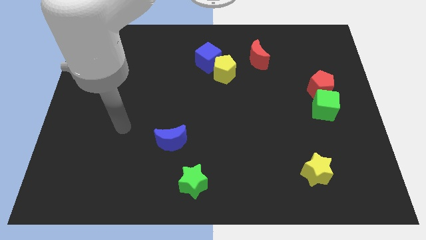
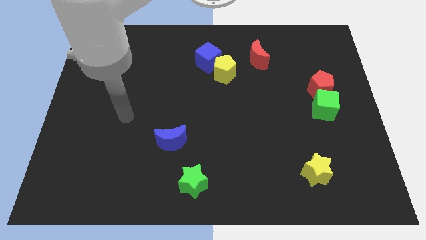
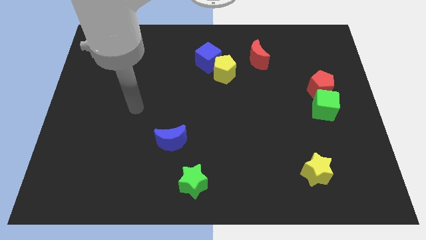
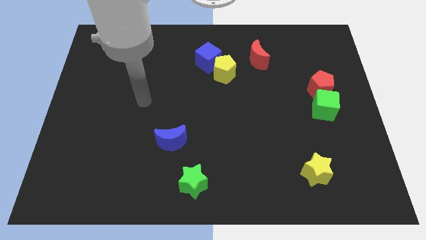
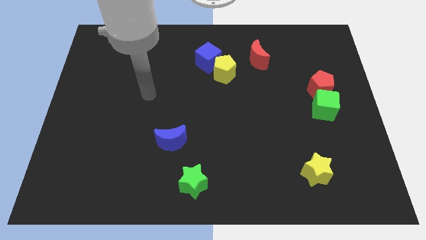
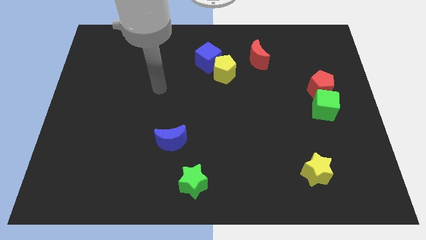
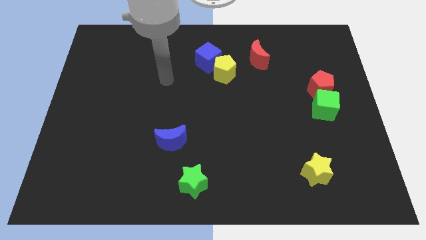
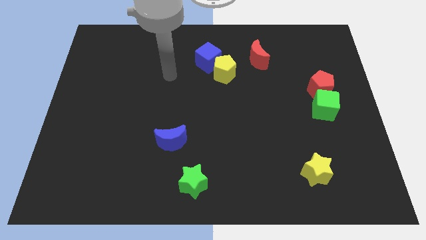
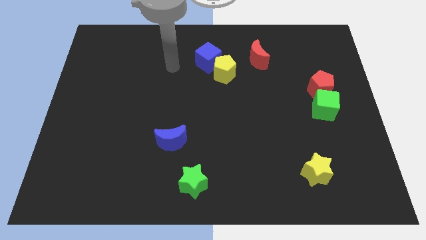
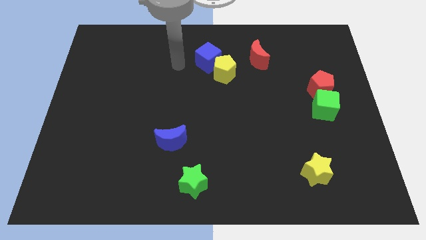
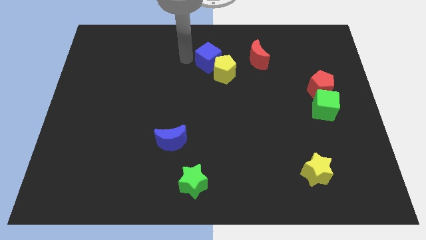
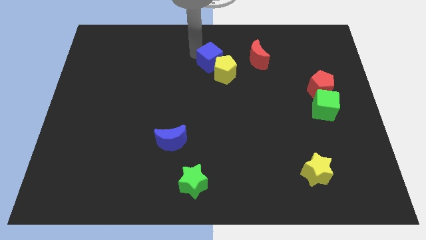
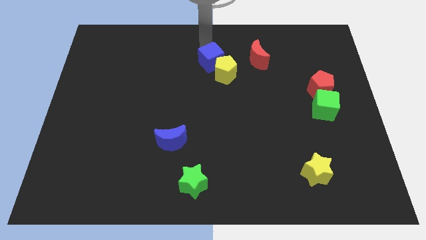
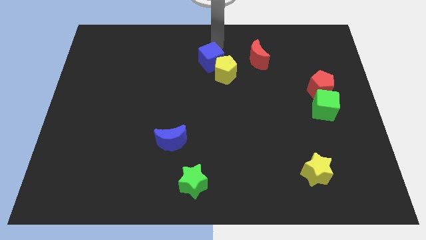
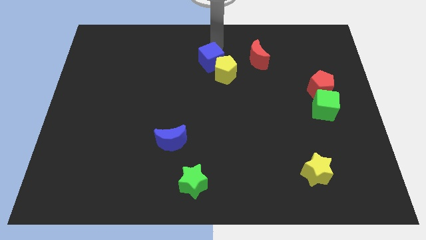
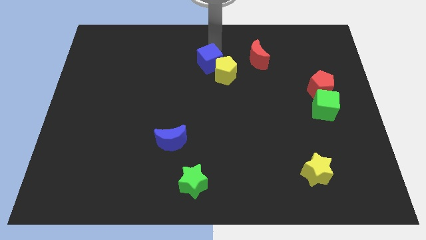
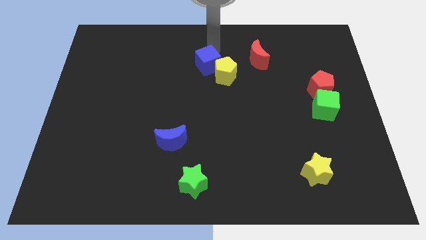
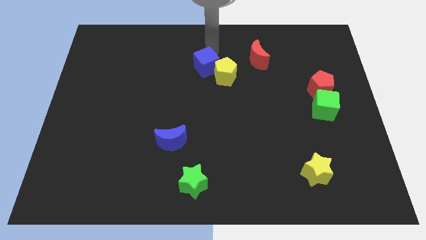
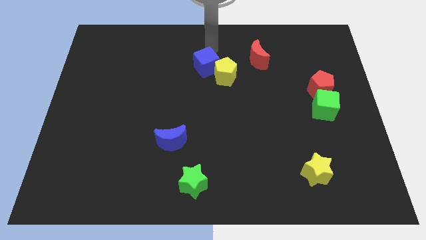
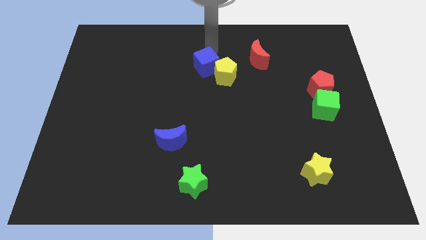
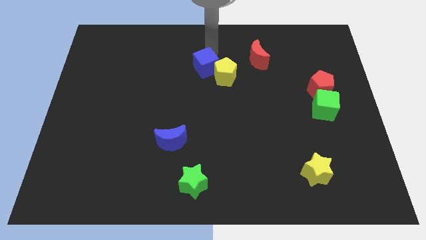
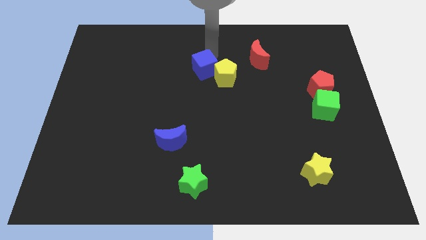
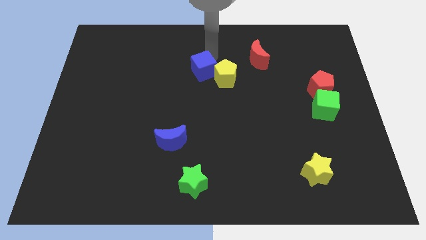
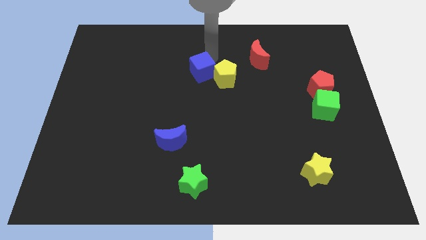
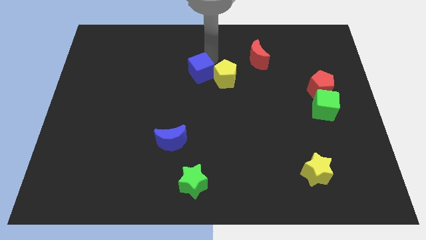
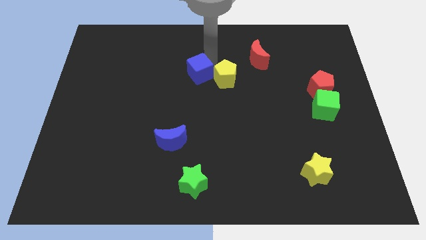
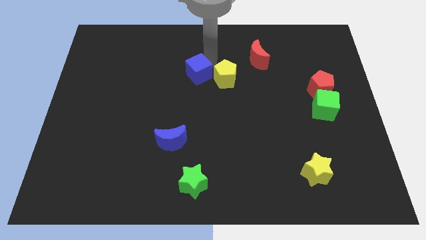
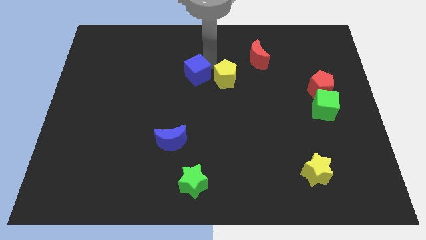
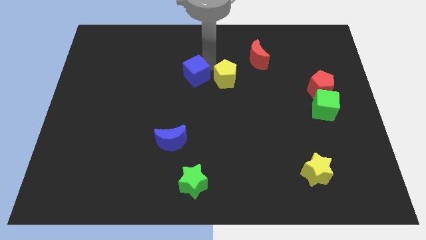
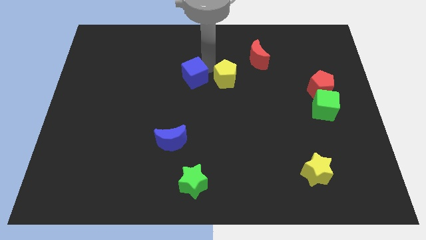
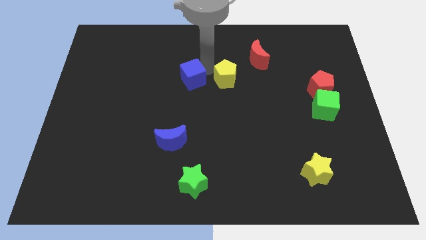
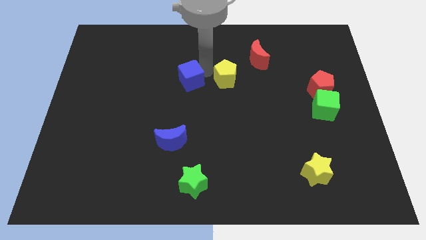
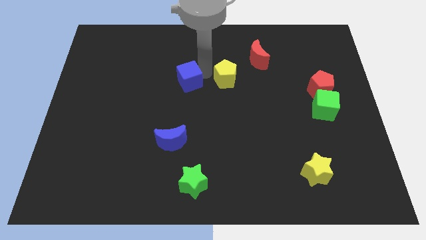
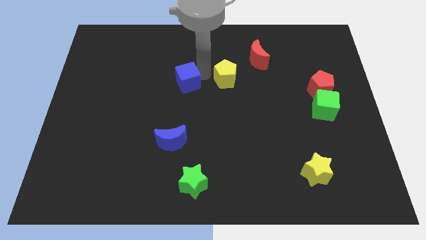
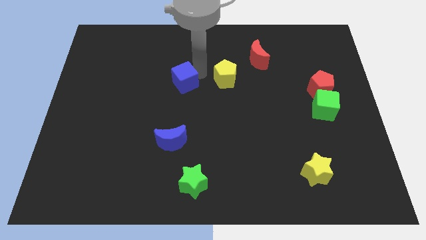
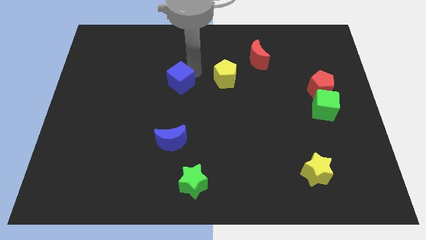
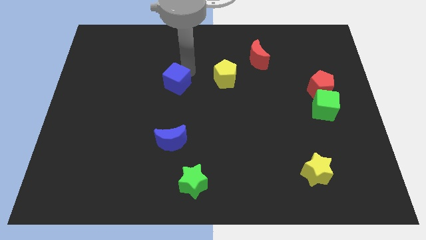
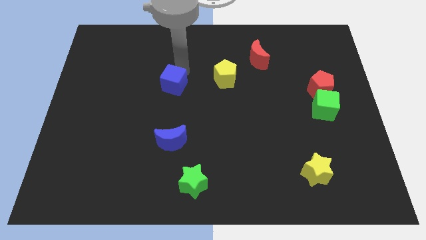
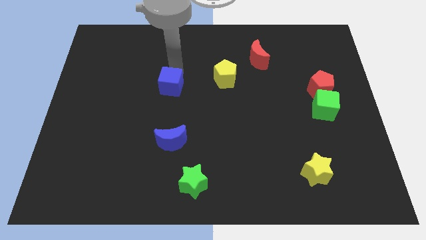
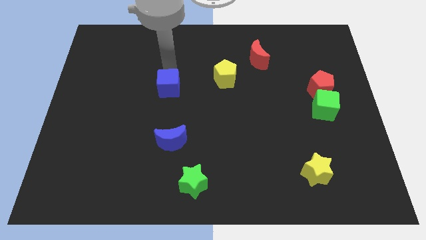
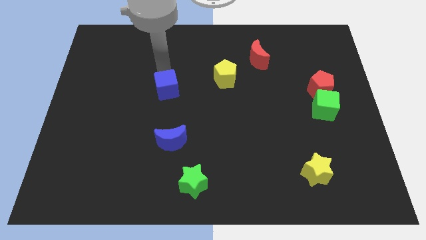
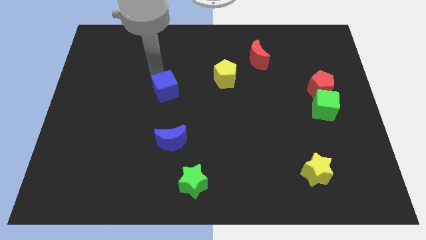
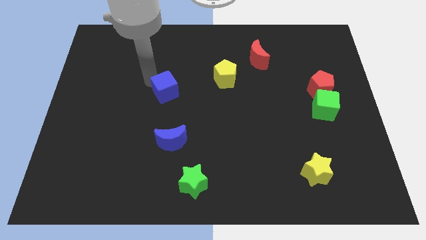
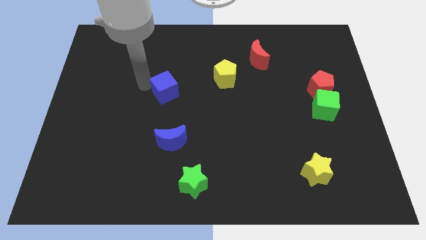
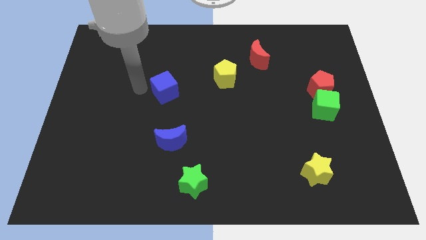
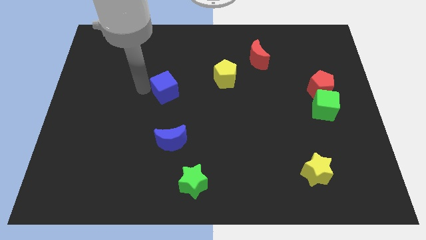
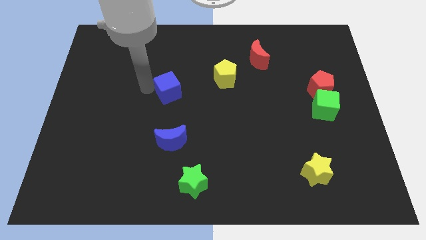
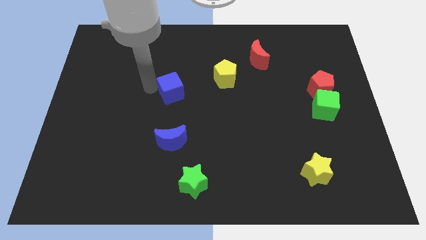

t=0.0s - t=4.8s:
move the blue cube a little bit down

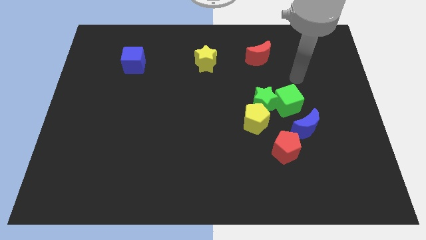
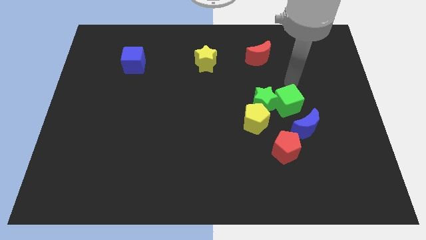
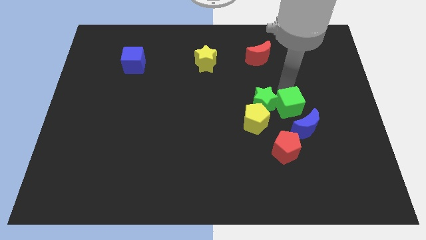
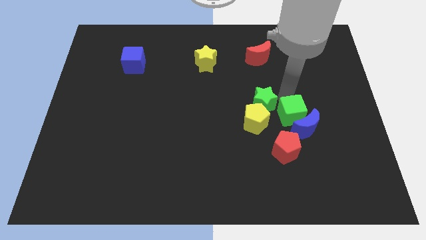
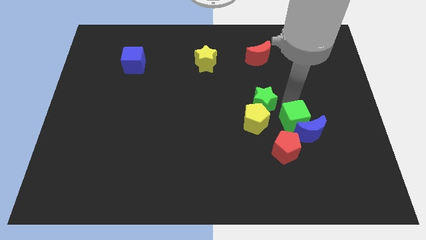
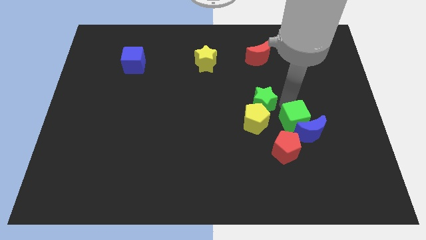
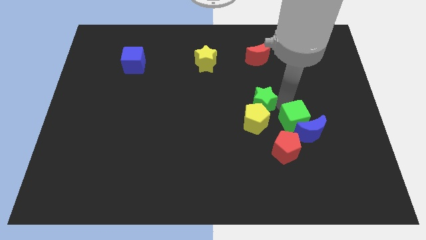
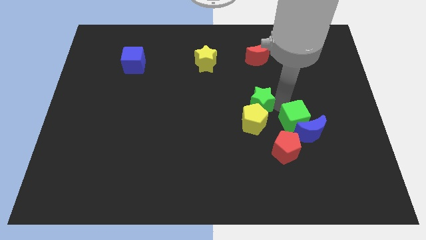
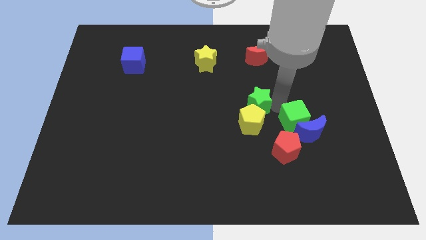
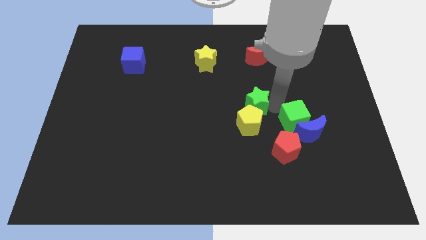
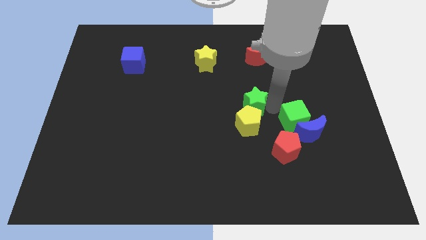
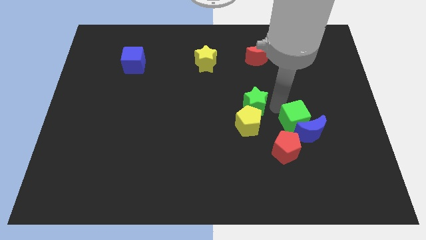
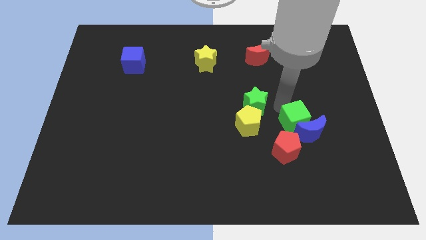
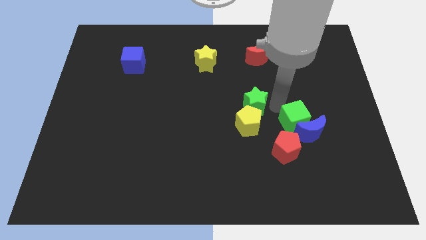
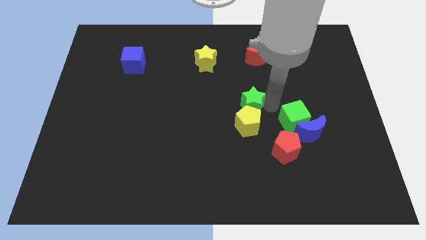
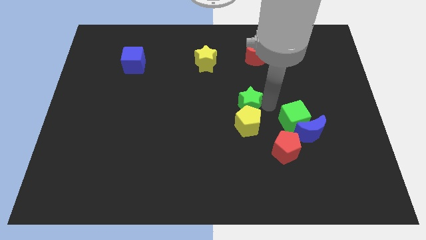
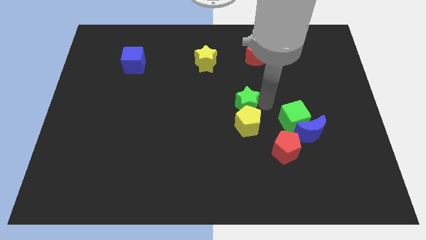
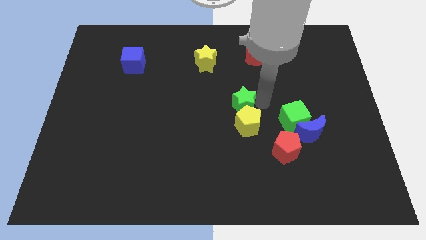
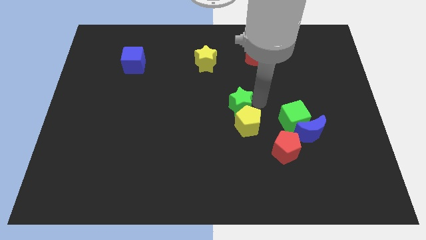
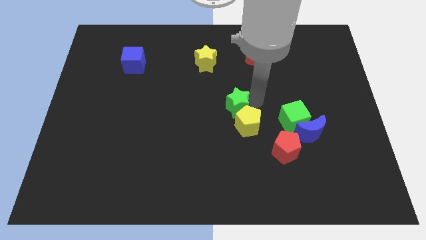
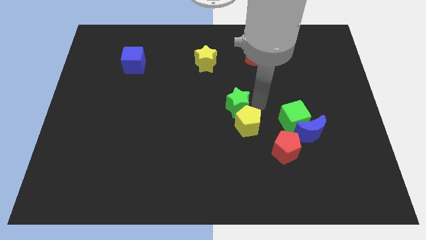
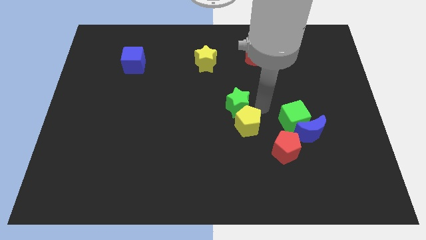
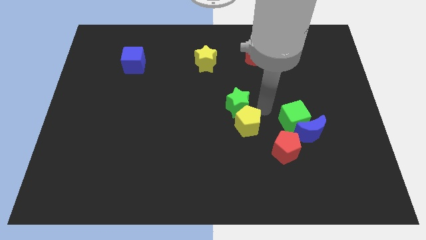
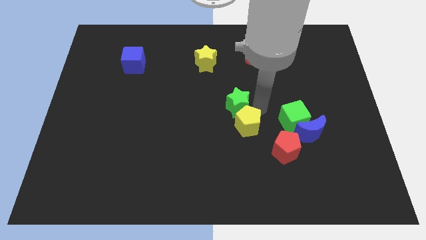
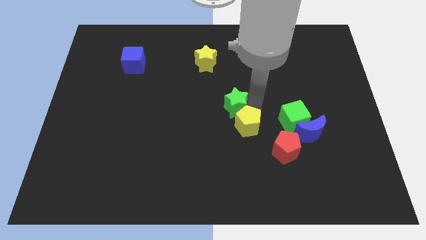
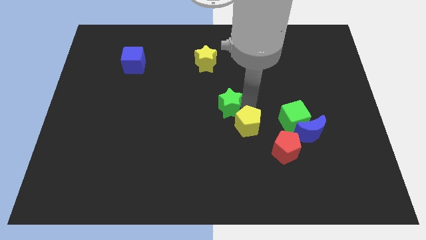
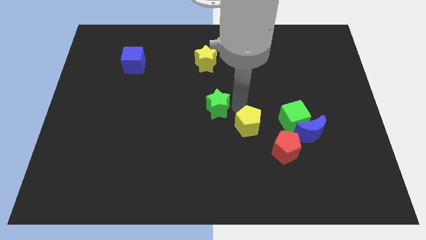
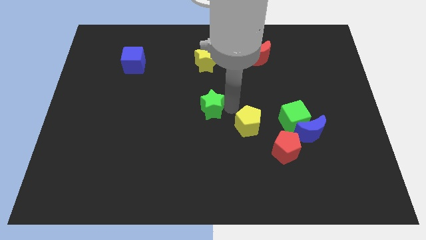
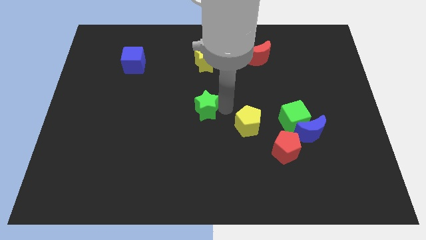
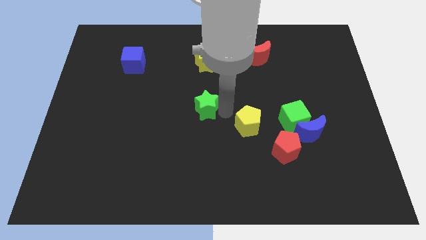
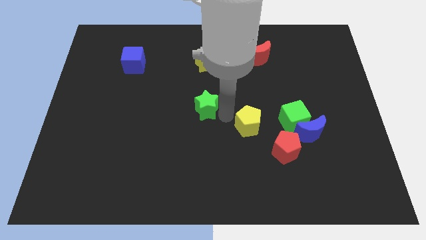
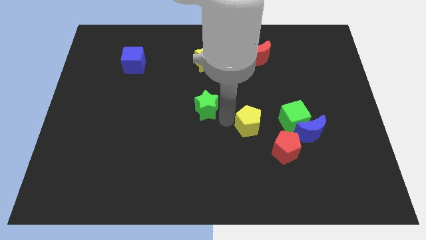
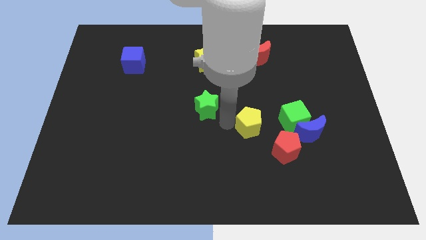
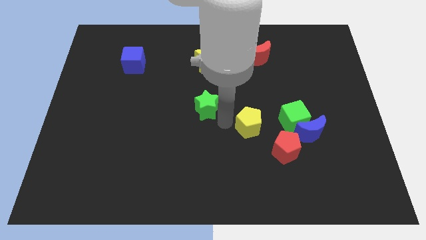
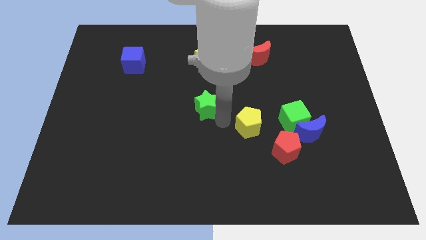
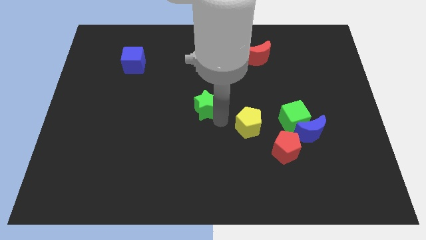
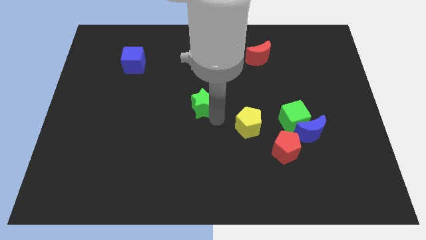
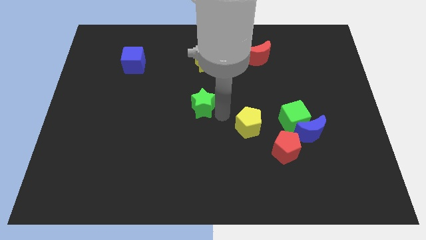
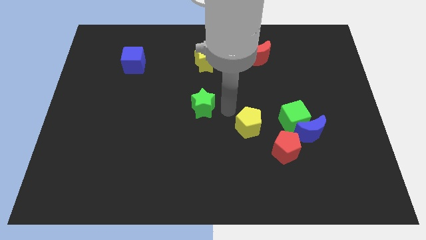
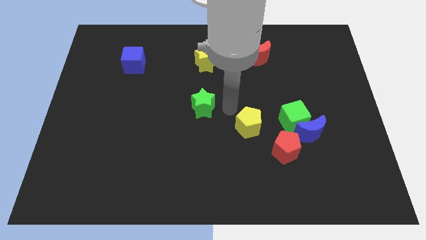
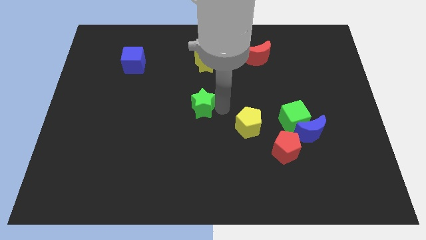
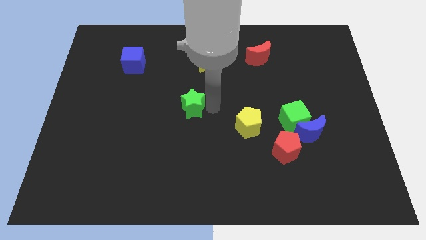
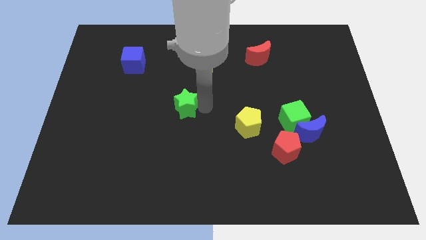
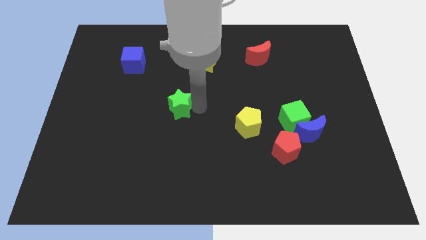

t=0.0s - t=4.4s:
push the green star left
